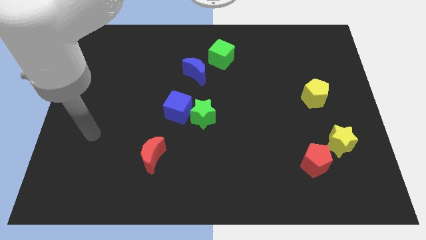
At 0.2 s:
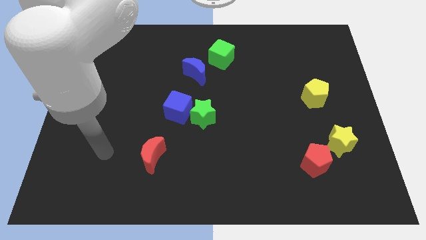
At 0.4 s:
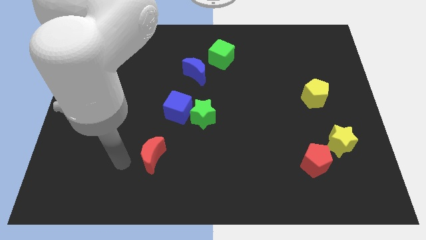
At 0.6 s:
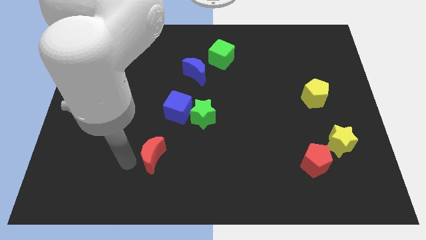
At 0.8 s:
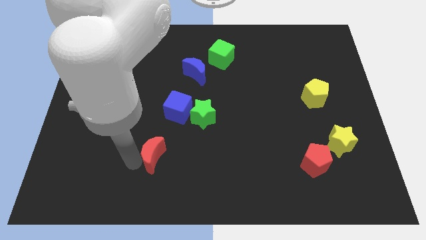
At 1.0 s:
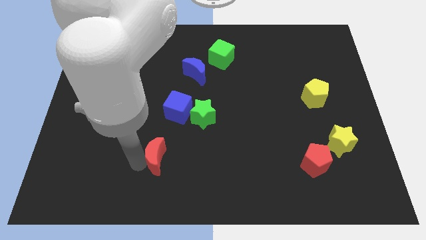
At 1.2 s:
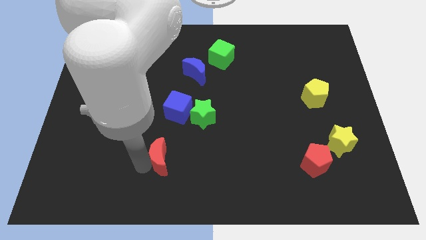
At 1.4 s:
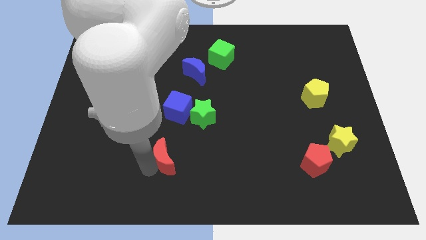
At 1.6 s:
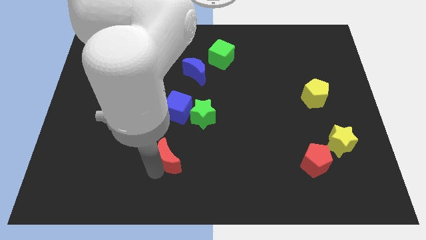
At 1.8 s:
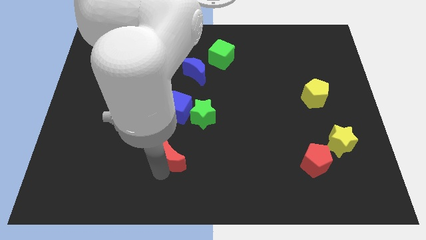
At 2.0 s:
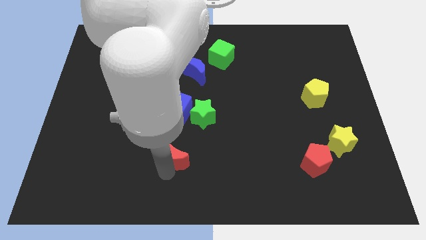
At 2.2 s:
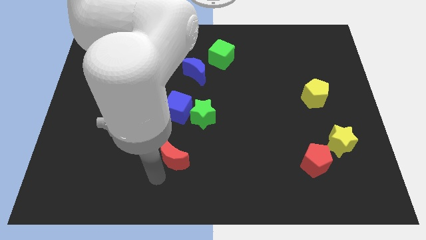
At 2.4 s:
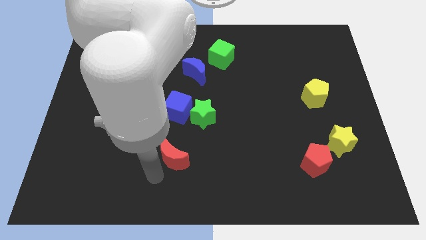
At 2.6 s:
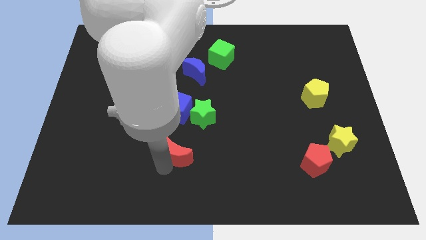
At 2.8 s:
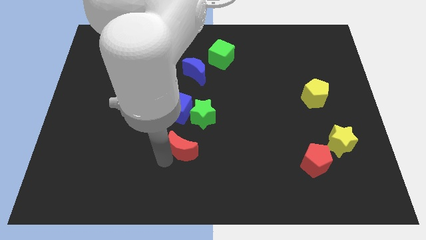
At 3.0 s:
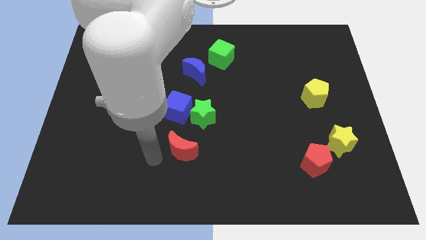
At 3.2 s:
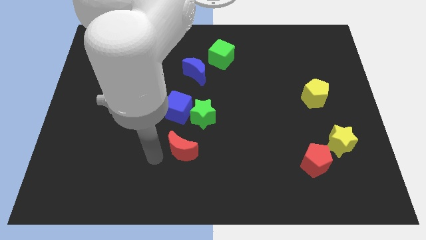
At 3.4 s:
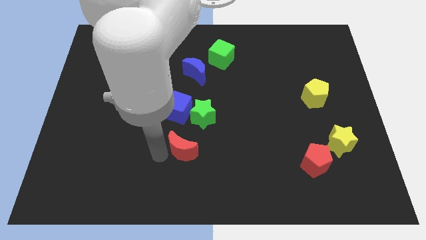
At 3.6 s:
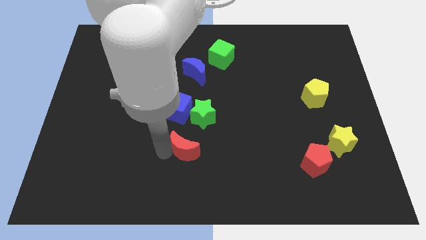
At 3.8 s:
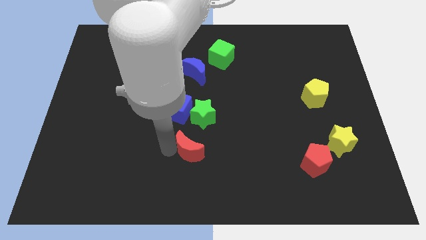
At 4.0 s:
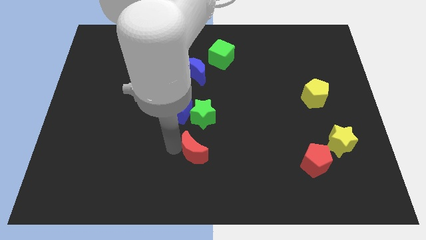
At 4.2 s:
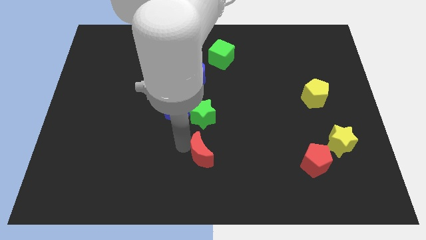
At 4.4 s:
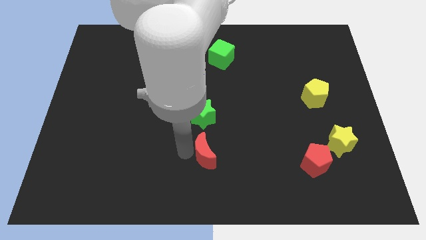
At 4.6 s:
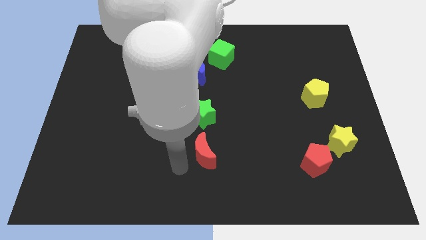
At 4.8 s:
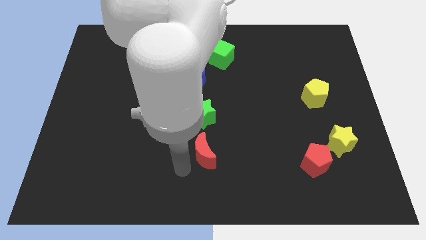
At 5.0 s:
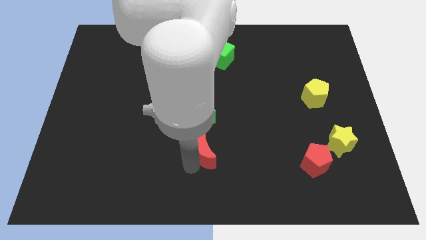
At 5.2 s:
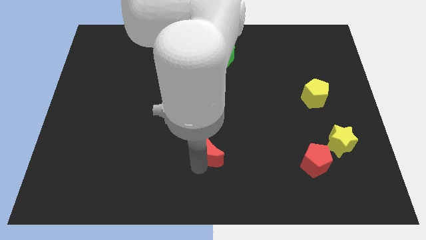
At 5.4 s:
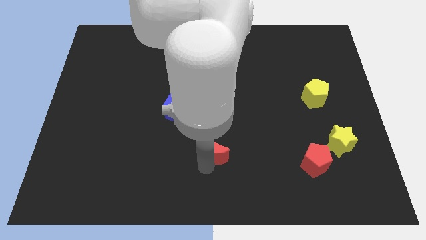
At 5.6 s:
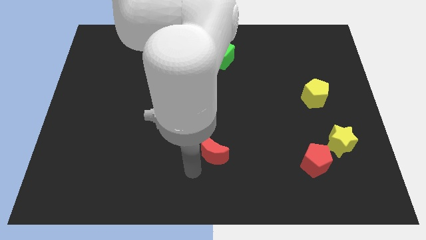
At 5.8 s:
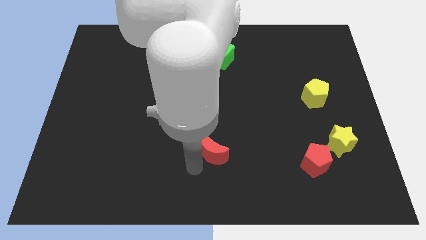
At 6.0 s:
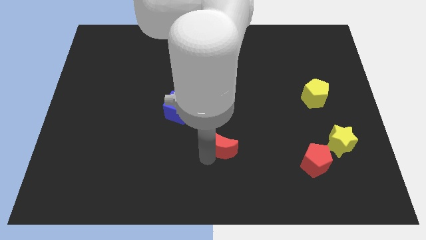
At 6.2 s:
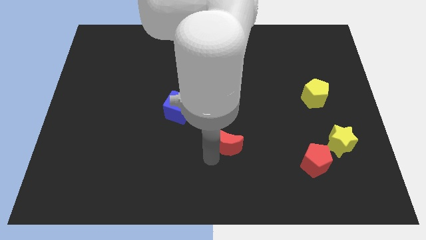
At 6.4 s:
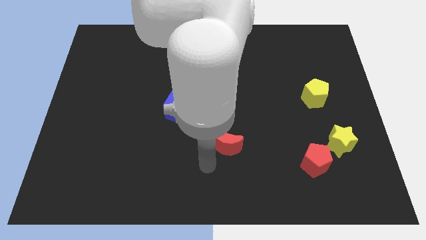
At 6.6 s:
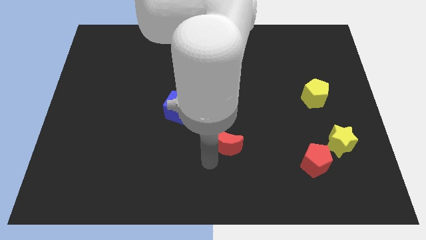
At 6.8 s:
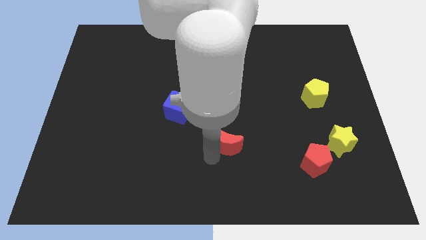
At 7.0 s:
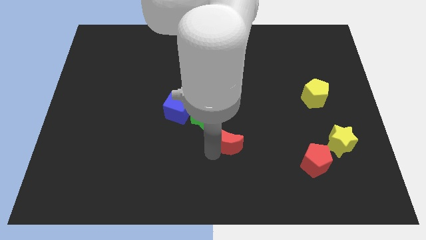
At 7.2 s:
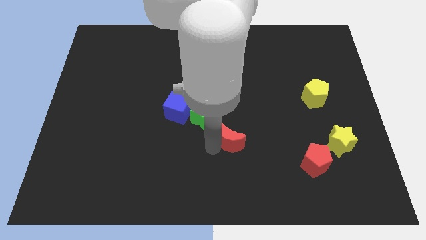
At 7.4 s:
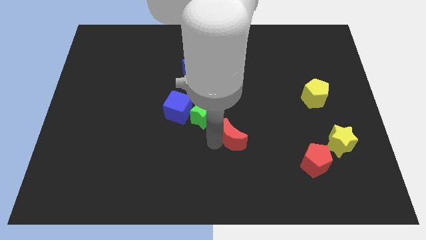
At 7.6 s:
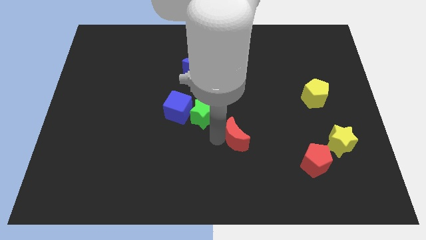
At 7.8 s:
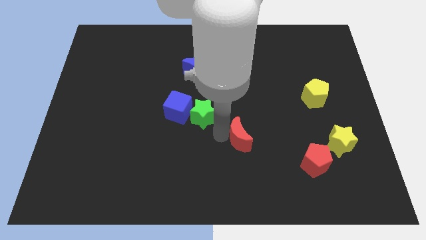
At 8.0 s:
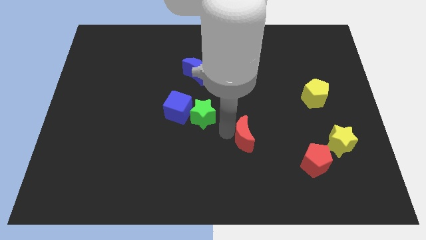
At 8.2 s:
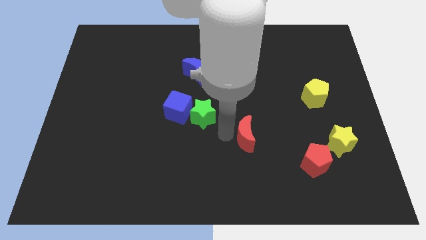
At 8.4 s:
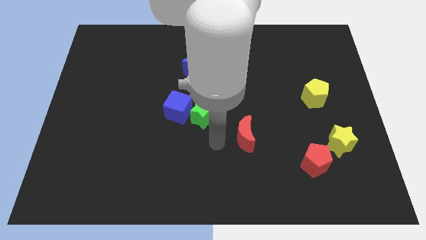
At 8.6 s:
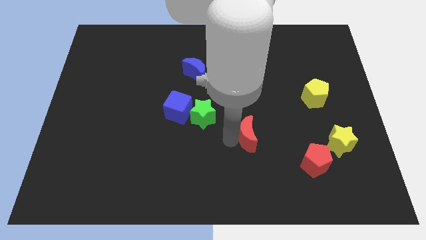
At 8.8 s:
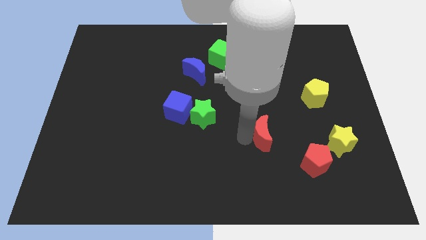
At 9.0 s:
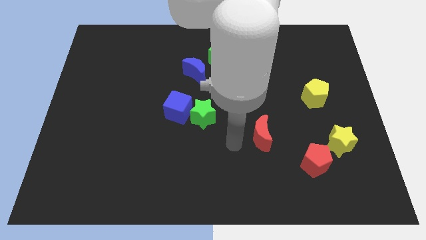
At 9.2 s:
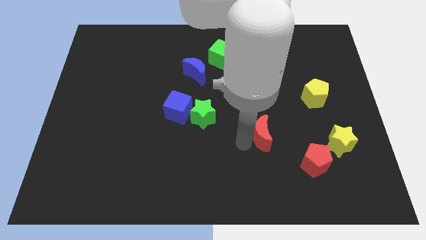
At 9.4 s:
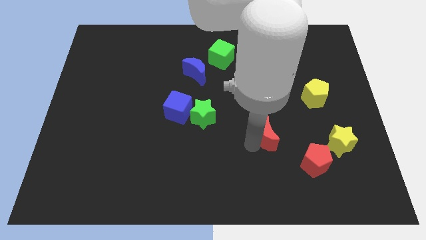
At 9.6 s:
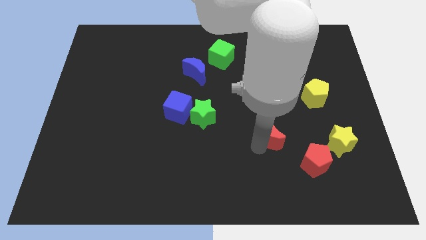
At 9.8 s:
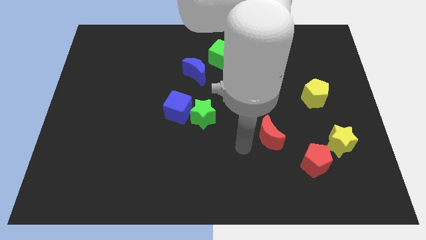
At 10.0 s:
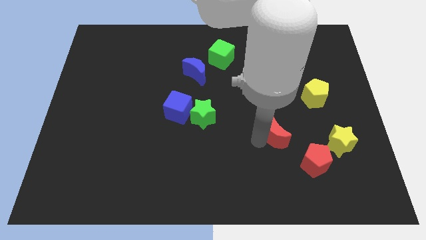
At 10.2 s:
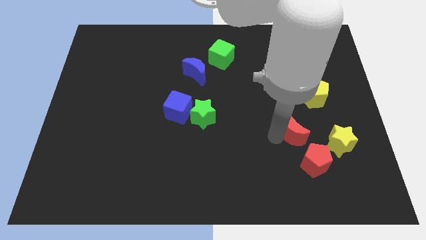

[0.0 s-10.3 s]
slide the red moon to the top of the red pentagon

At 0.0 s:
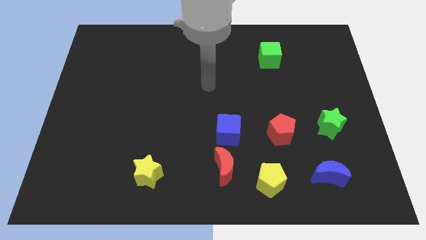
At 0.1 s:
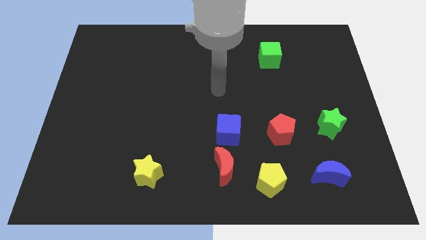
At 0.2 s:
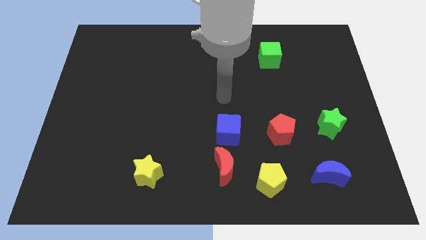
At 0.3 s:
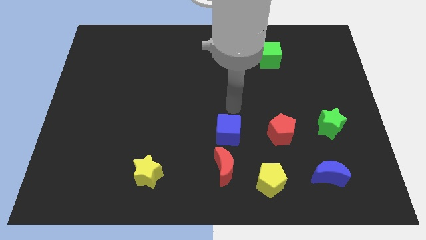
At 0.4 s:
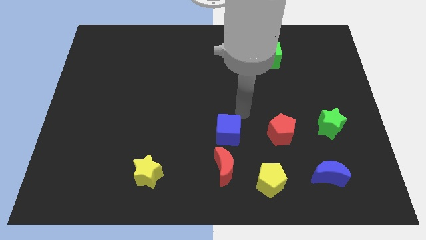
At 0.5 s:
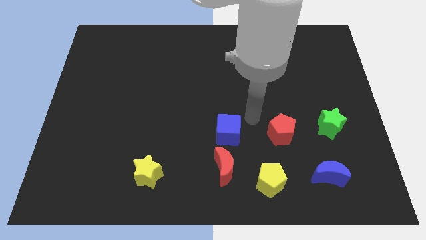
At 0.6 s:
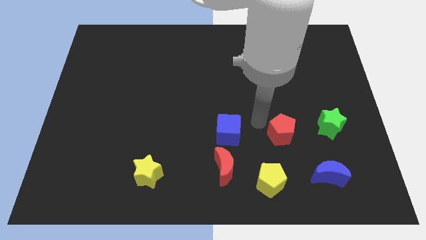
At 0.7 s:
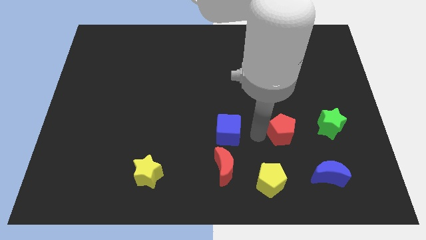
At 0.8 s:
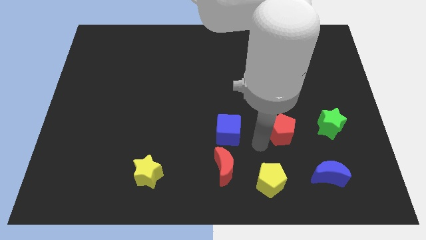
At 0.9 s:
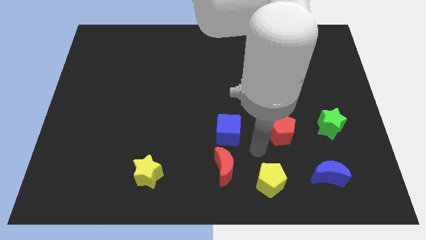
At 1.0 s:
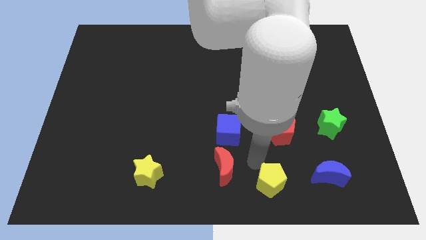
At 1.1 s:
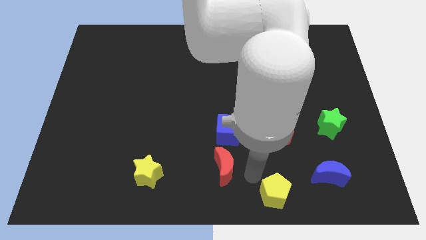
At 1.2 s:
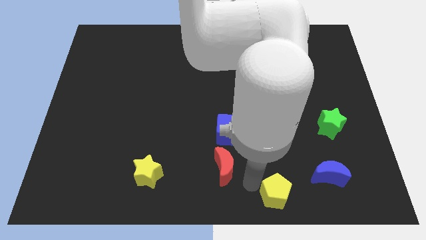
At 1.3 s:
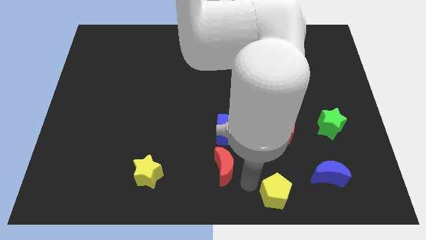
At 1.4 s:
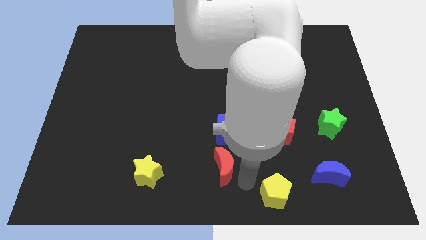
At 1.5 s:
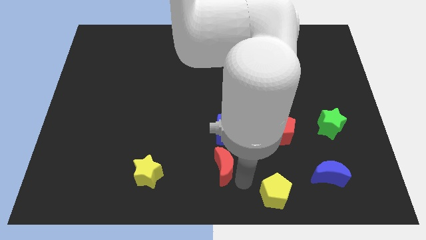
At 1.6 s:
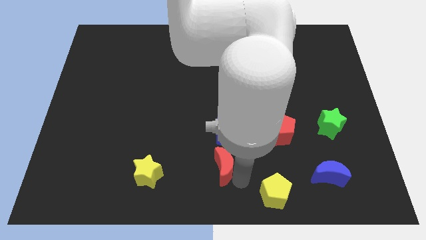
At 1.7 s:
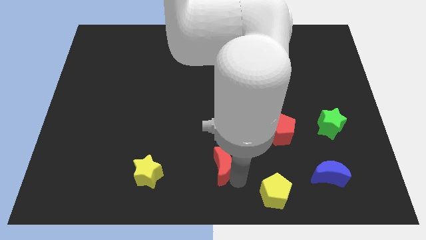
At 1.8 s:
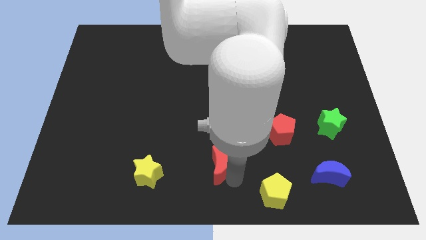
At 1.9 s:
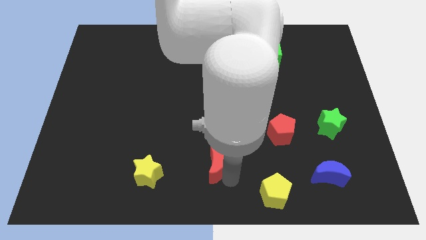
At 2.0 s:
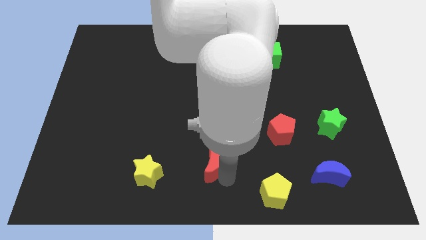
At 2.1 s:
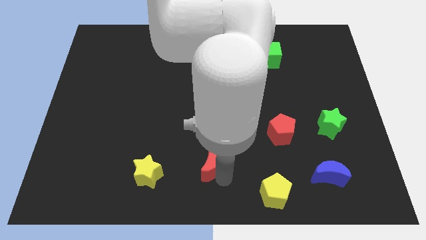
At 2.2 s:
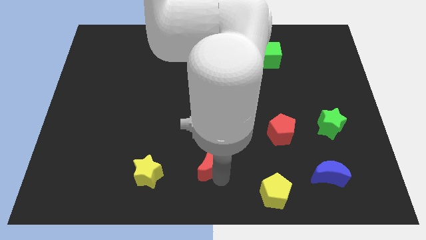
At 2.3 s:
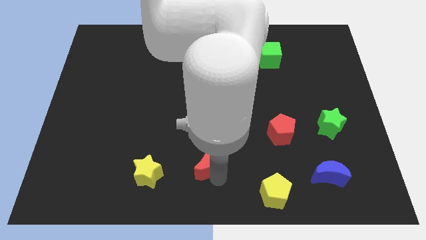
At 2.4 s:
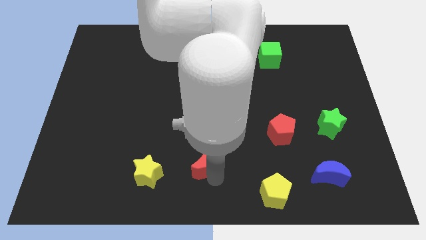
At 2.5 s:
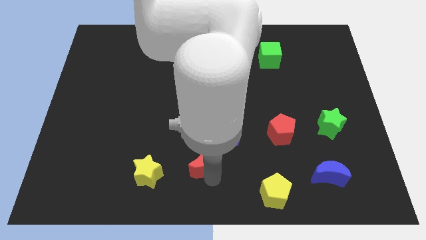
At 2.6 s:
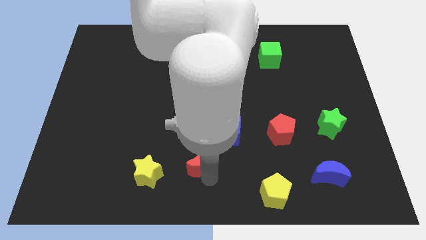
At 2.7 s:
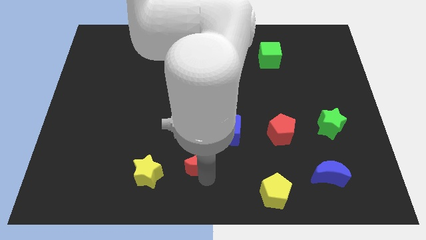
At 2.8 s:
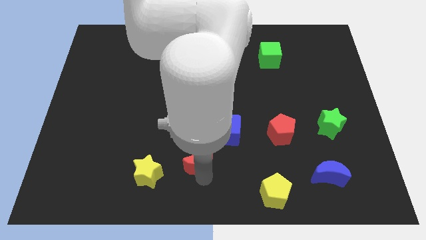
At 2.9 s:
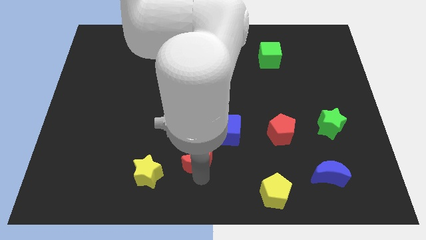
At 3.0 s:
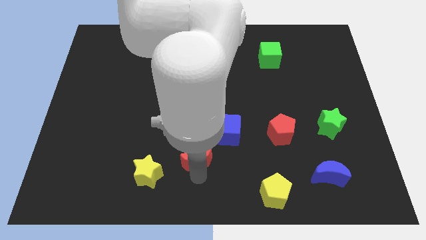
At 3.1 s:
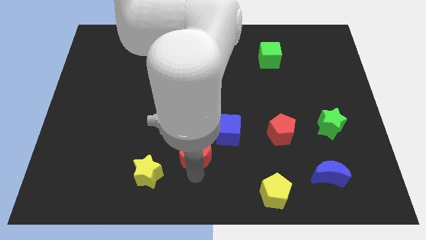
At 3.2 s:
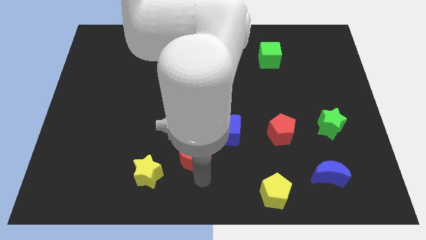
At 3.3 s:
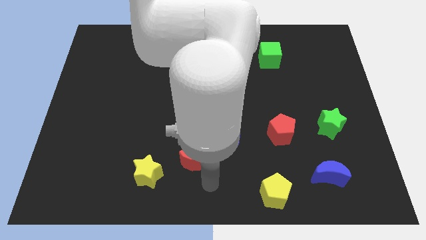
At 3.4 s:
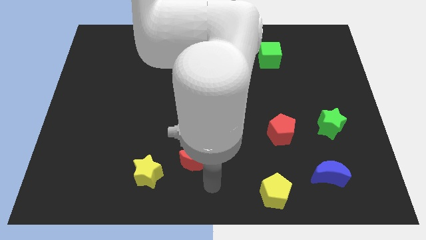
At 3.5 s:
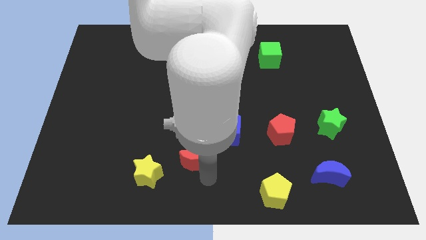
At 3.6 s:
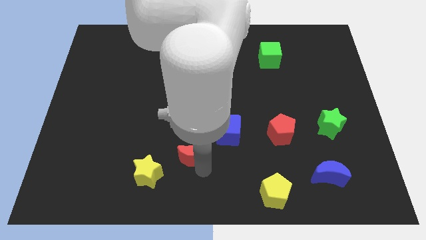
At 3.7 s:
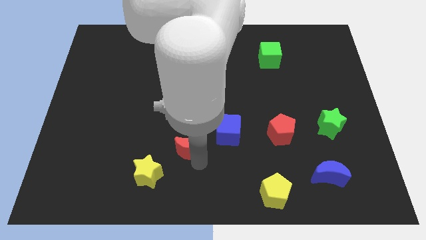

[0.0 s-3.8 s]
slide the red moon just left of the blue cube
